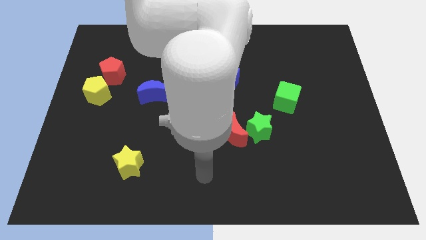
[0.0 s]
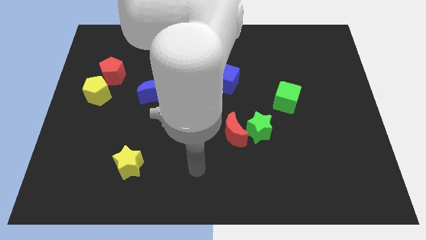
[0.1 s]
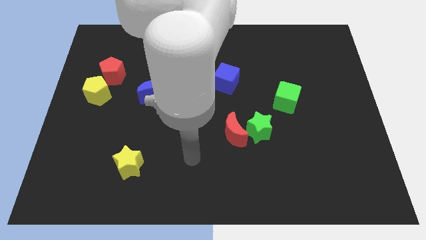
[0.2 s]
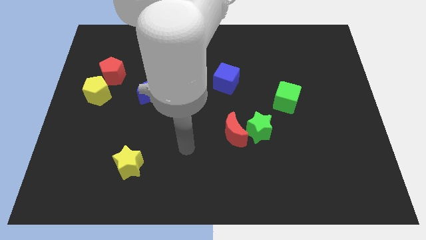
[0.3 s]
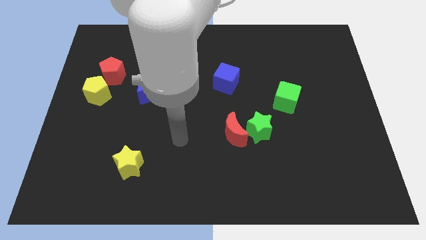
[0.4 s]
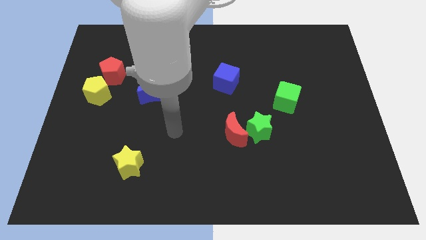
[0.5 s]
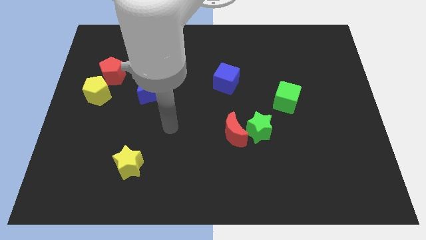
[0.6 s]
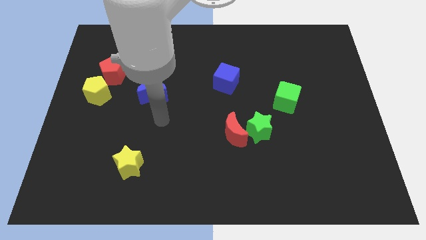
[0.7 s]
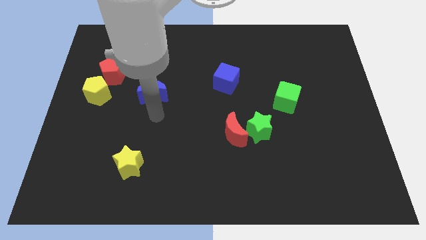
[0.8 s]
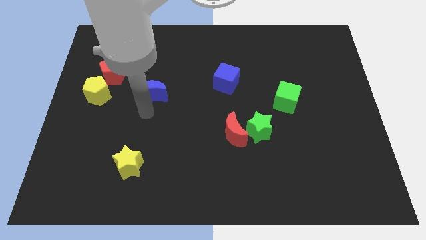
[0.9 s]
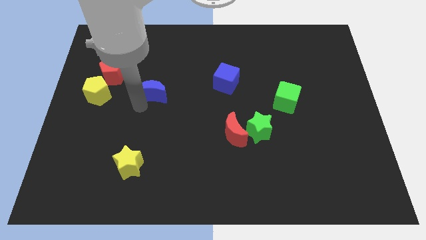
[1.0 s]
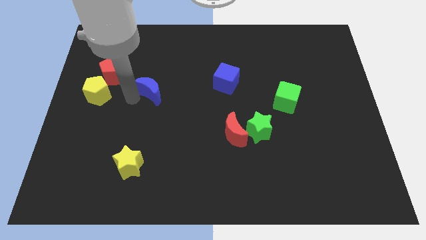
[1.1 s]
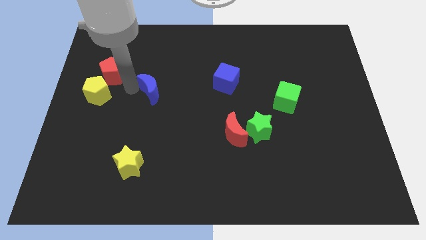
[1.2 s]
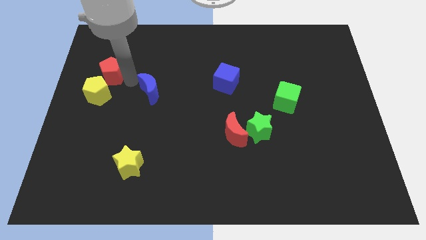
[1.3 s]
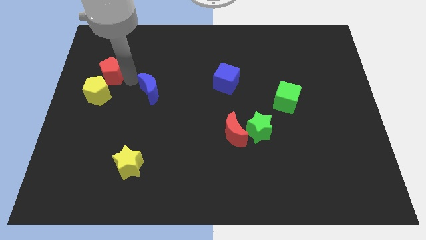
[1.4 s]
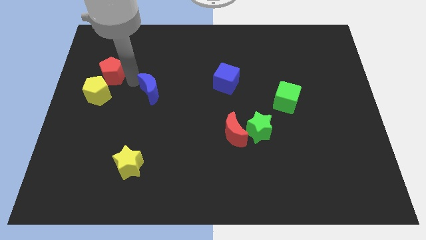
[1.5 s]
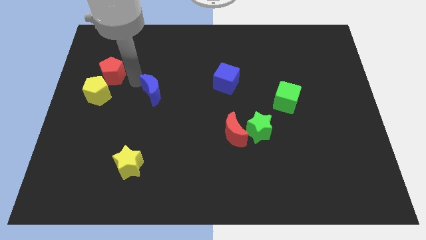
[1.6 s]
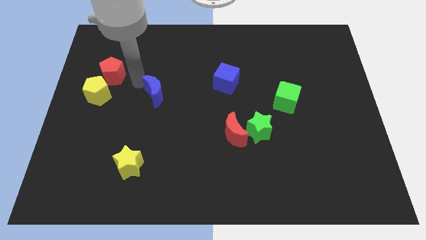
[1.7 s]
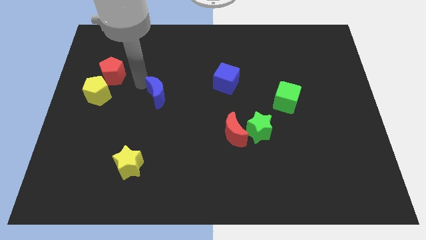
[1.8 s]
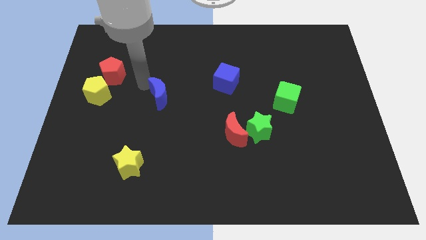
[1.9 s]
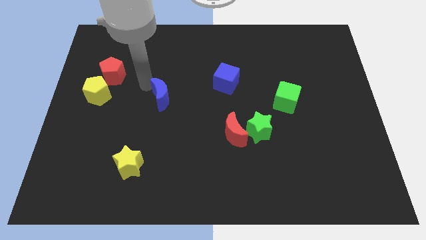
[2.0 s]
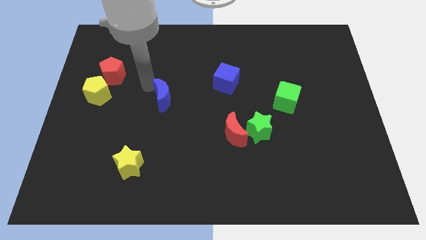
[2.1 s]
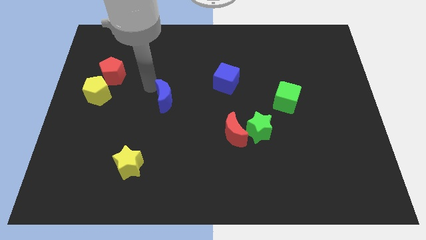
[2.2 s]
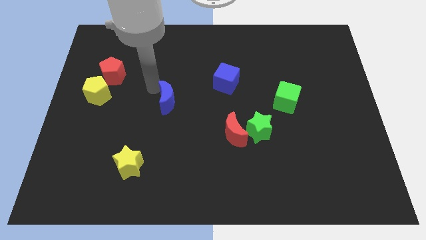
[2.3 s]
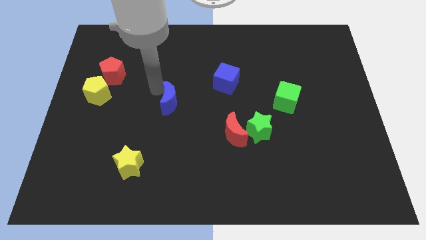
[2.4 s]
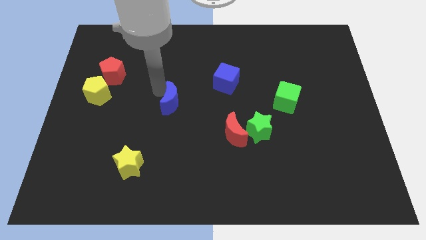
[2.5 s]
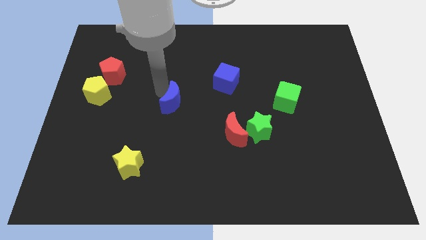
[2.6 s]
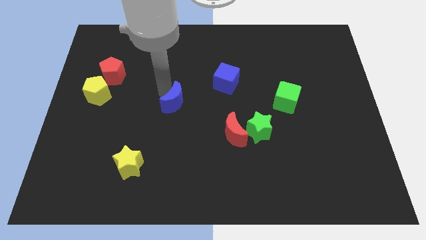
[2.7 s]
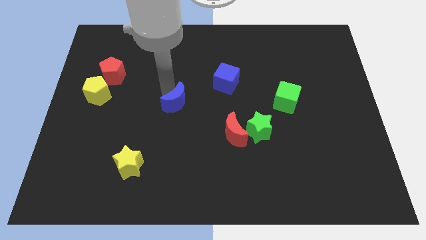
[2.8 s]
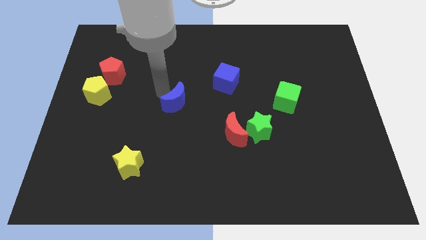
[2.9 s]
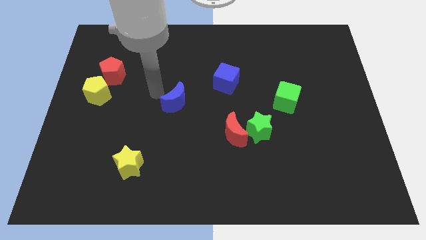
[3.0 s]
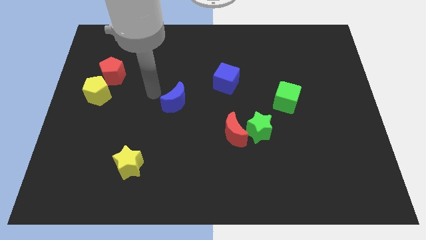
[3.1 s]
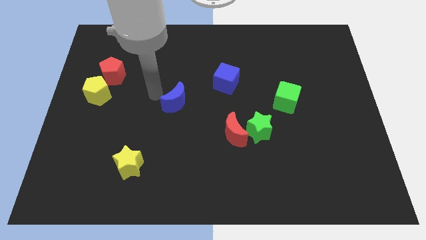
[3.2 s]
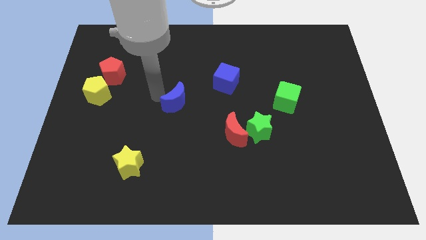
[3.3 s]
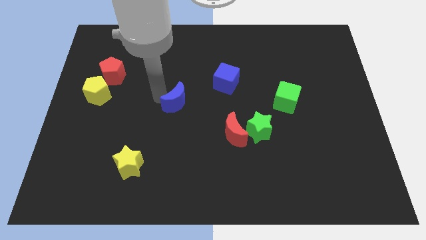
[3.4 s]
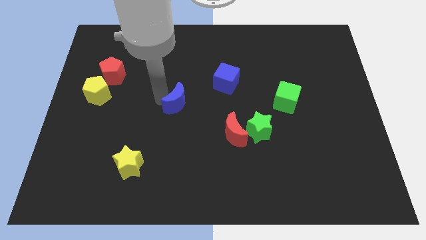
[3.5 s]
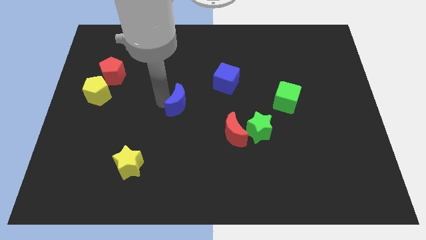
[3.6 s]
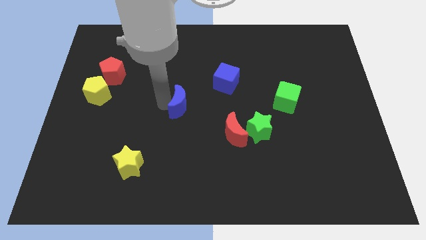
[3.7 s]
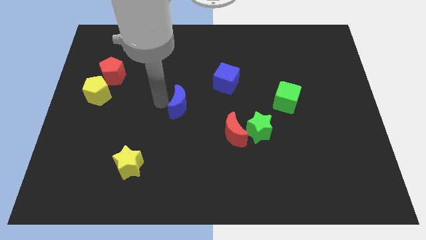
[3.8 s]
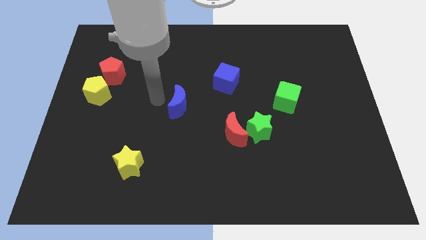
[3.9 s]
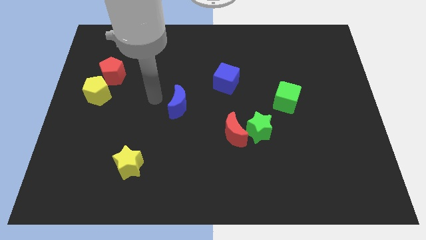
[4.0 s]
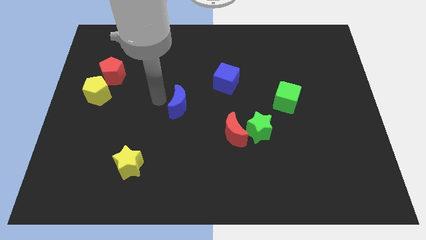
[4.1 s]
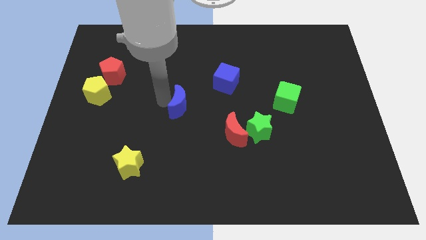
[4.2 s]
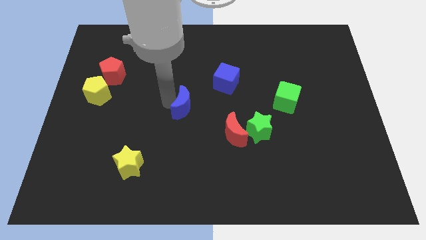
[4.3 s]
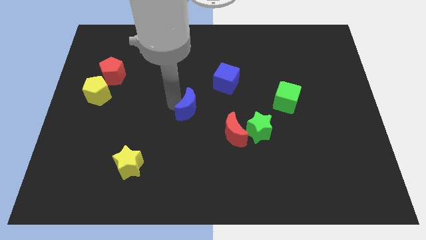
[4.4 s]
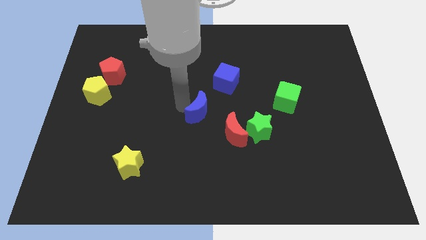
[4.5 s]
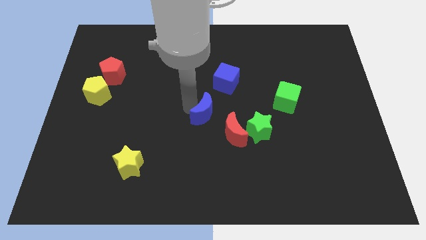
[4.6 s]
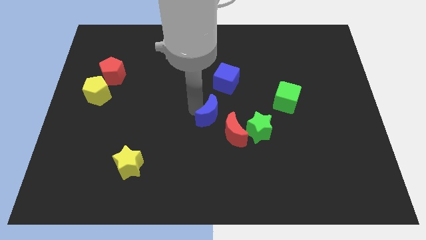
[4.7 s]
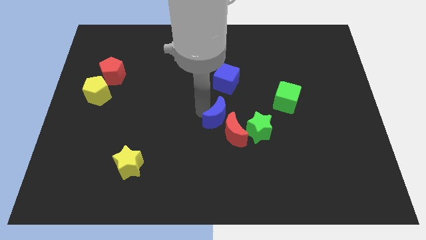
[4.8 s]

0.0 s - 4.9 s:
push the blue moon towards the red moon

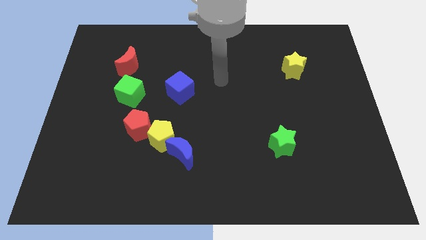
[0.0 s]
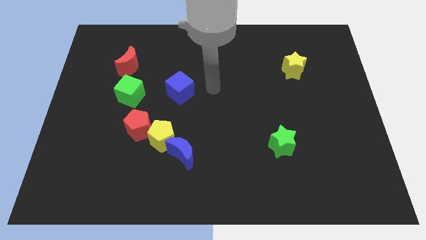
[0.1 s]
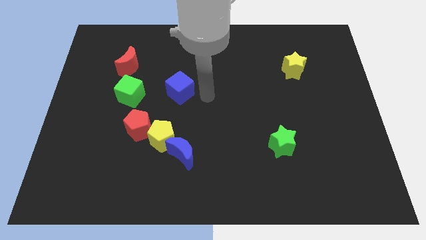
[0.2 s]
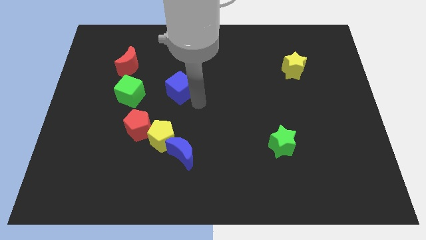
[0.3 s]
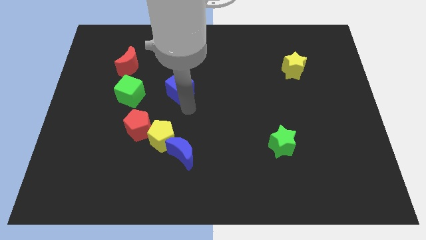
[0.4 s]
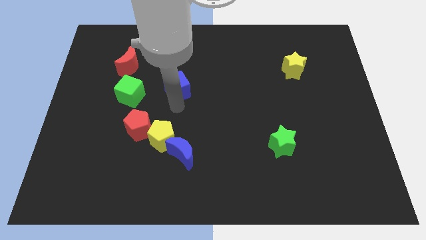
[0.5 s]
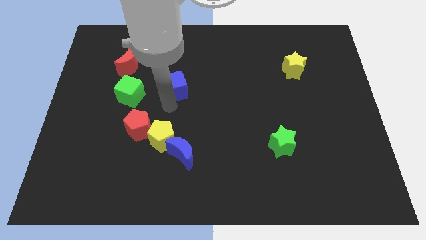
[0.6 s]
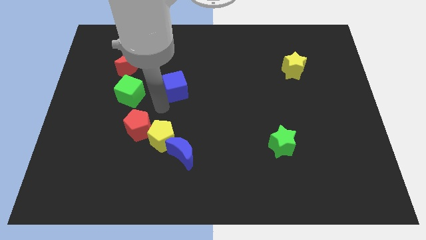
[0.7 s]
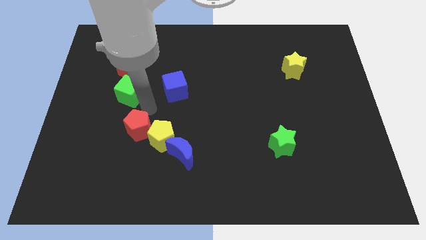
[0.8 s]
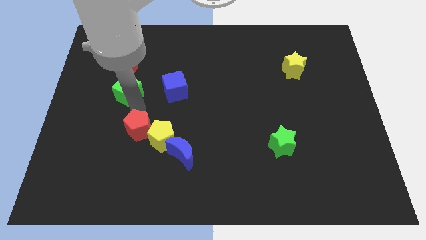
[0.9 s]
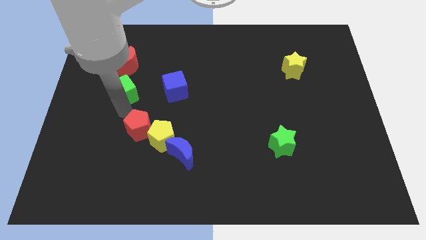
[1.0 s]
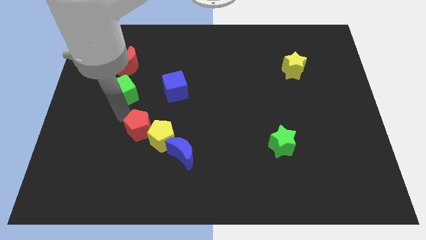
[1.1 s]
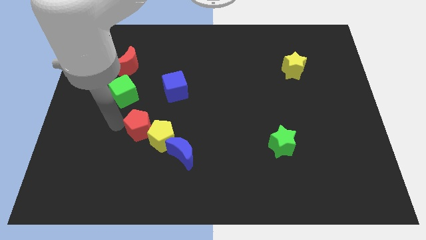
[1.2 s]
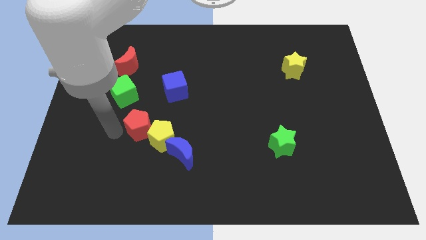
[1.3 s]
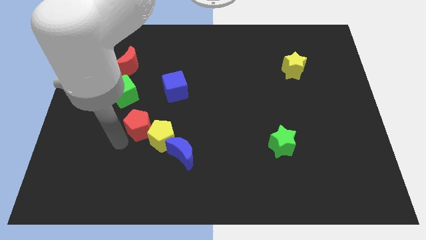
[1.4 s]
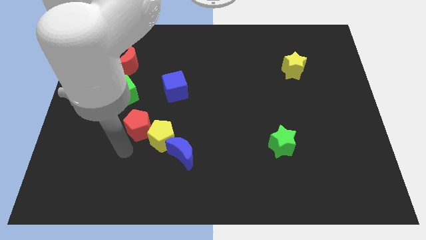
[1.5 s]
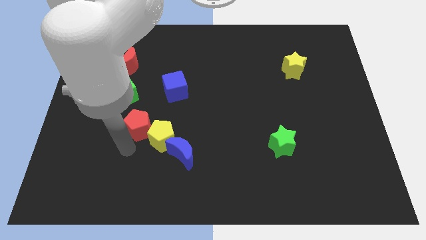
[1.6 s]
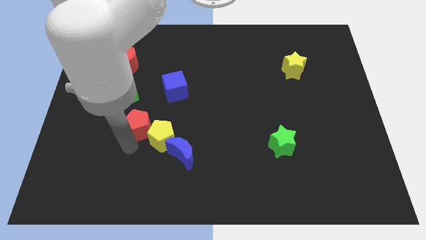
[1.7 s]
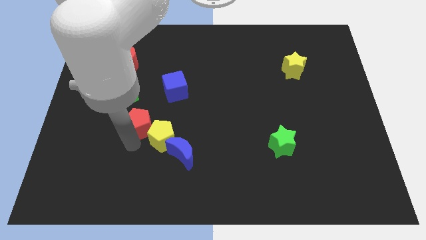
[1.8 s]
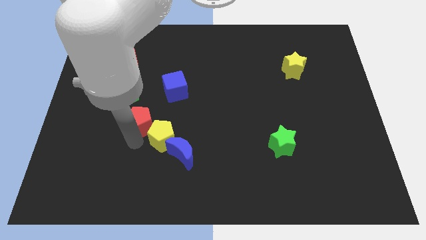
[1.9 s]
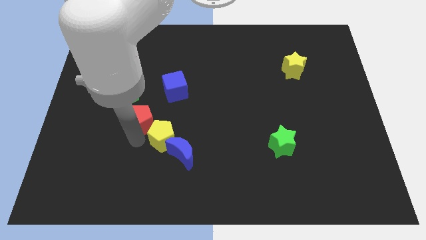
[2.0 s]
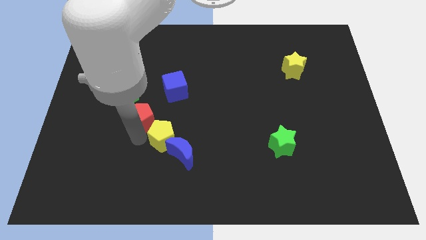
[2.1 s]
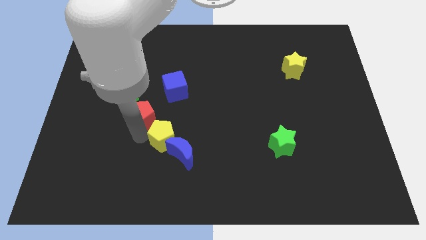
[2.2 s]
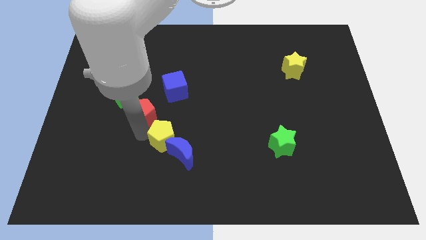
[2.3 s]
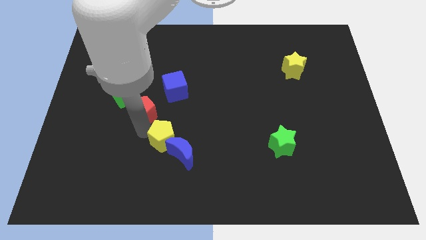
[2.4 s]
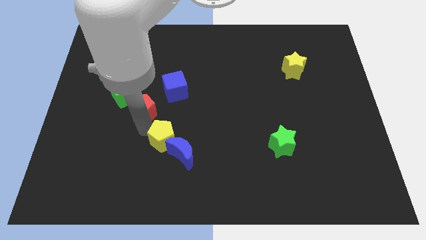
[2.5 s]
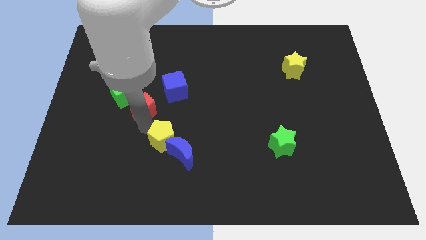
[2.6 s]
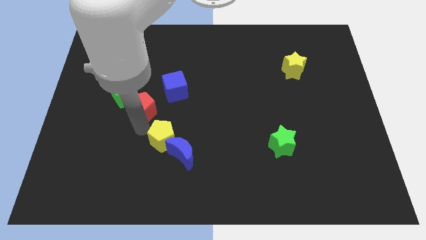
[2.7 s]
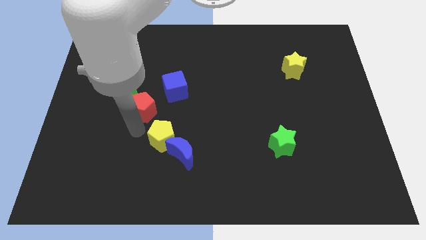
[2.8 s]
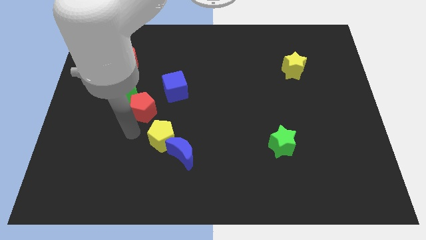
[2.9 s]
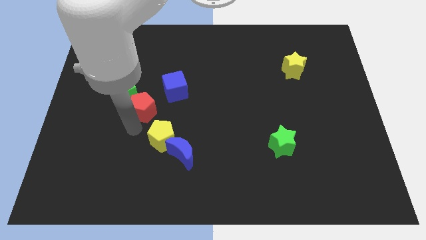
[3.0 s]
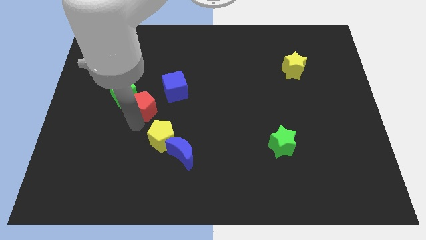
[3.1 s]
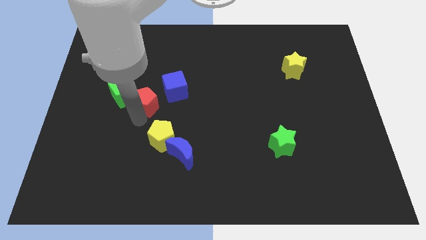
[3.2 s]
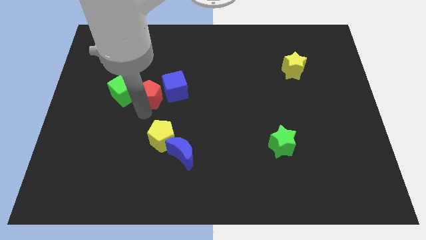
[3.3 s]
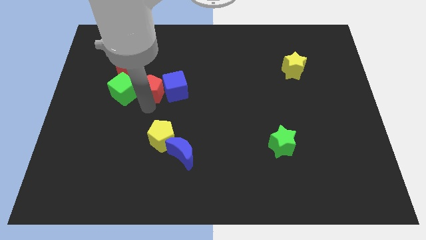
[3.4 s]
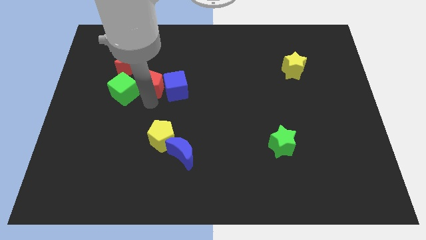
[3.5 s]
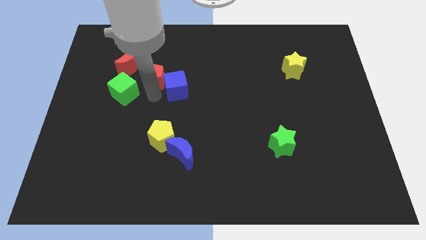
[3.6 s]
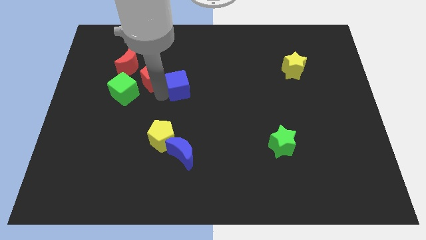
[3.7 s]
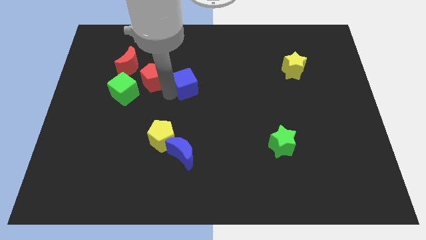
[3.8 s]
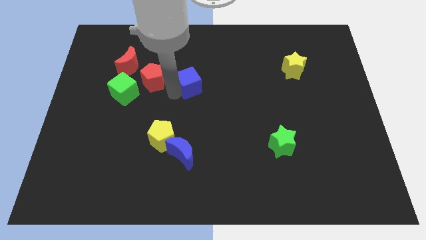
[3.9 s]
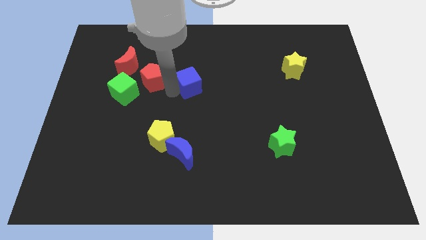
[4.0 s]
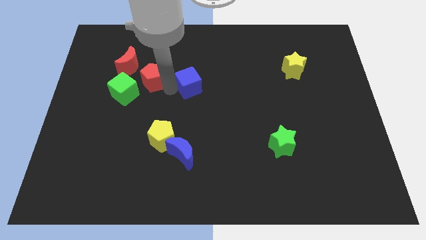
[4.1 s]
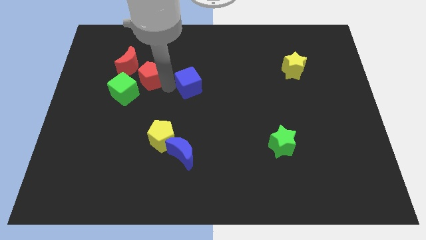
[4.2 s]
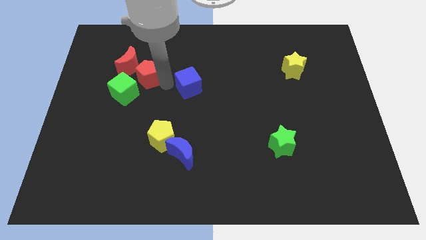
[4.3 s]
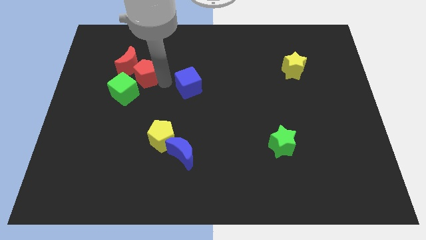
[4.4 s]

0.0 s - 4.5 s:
move the red pentagon to the red moon
